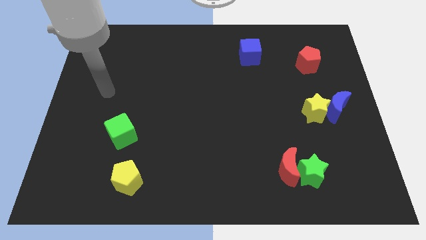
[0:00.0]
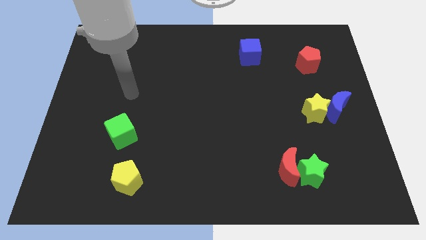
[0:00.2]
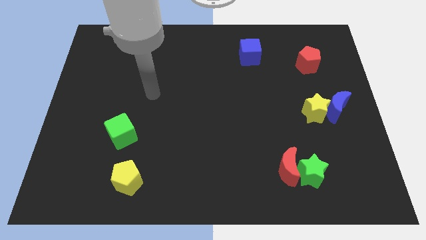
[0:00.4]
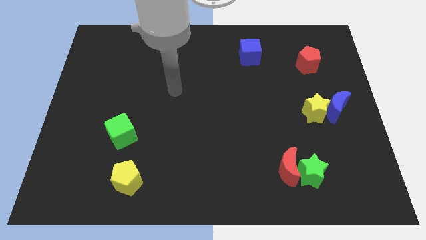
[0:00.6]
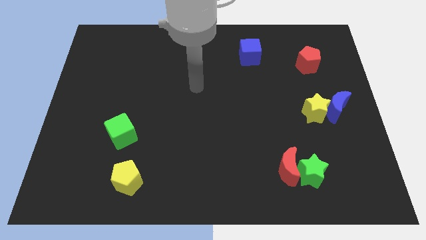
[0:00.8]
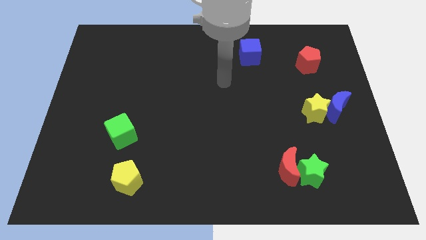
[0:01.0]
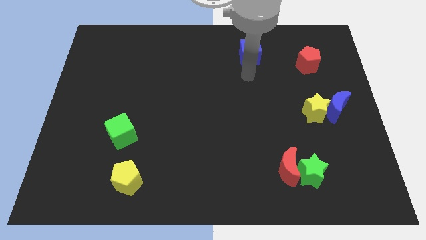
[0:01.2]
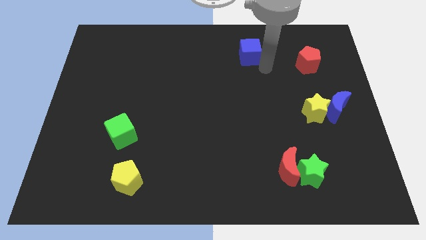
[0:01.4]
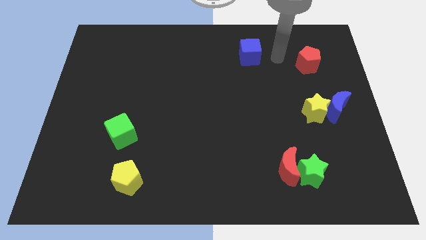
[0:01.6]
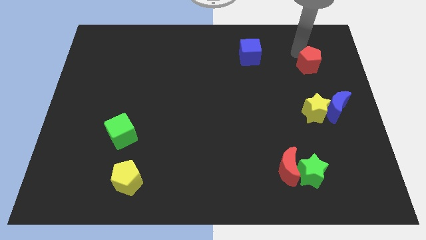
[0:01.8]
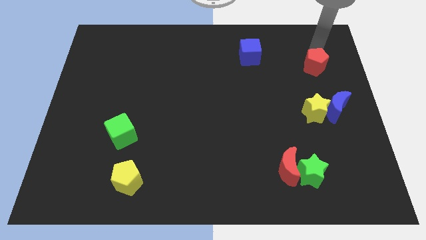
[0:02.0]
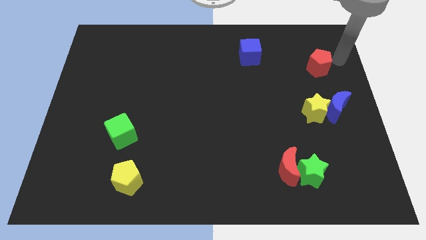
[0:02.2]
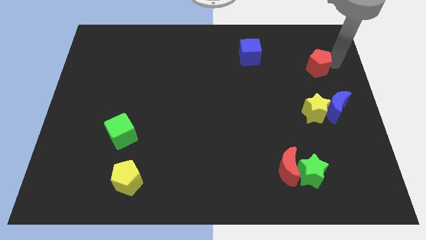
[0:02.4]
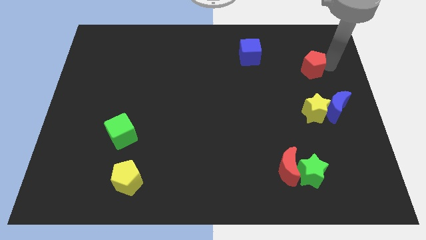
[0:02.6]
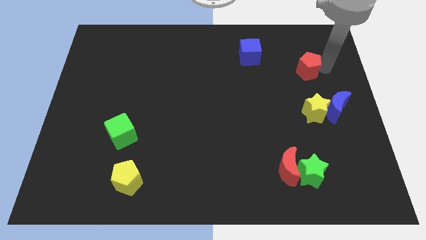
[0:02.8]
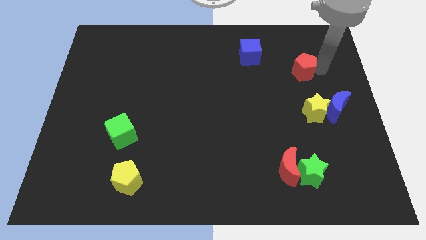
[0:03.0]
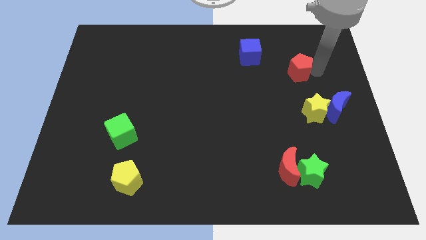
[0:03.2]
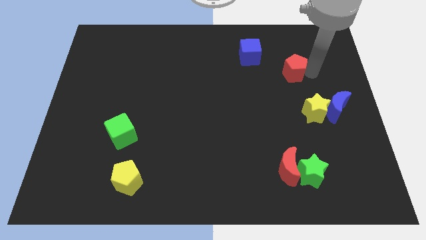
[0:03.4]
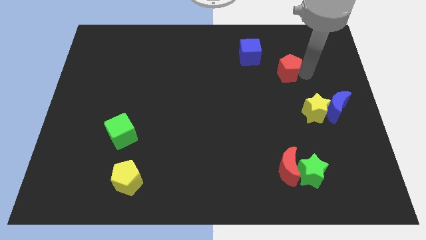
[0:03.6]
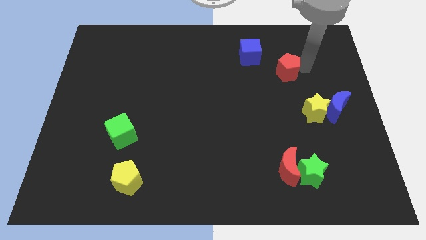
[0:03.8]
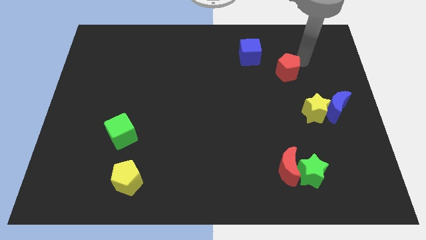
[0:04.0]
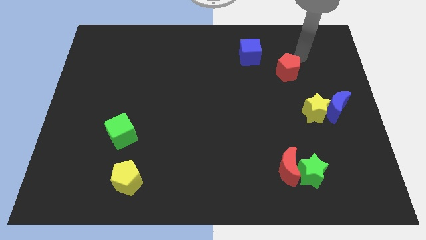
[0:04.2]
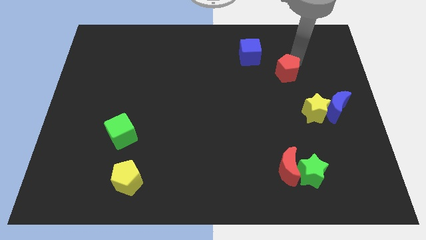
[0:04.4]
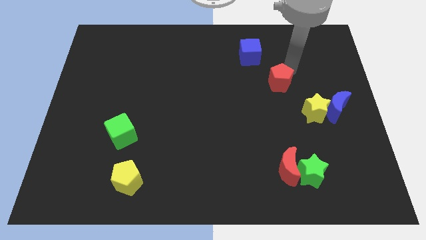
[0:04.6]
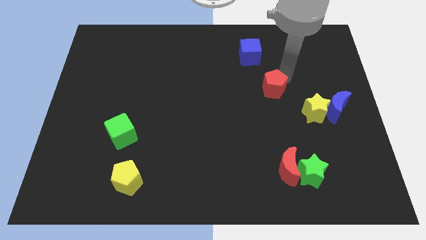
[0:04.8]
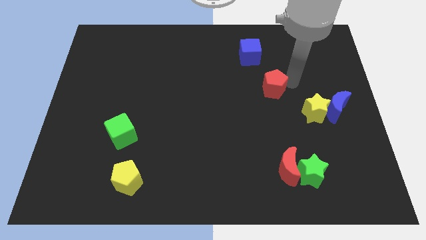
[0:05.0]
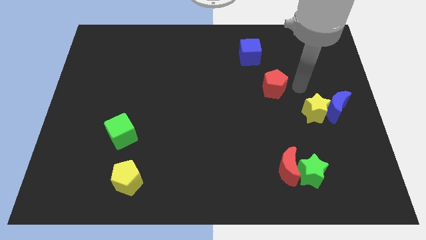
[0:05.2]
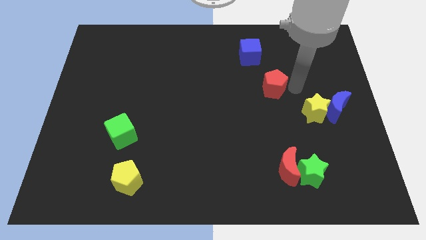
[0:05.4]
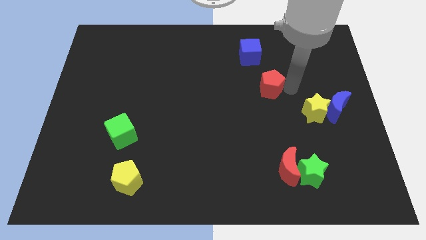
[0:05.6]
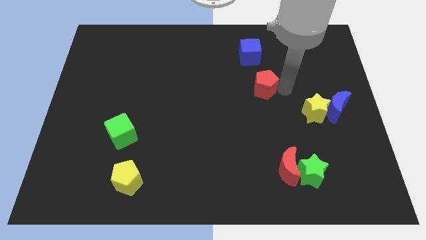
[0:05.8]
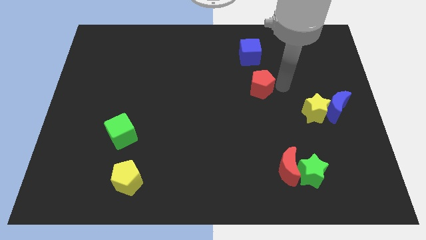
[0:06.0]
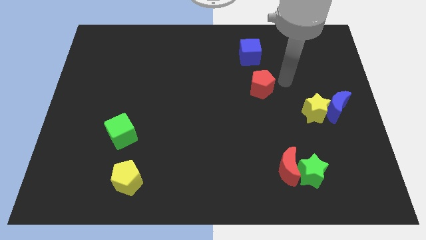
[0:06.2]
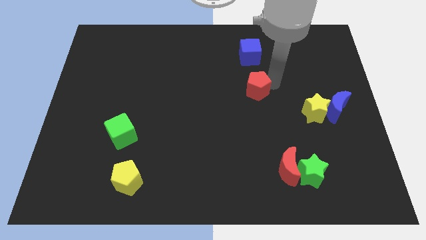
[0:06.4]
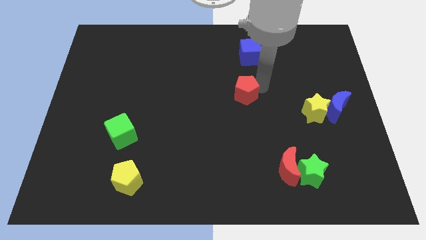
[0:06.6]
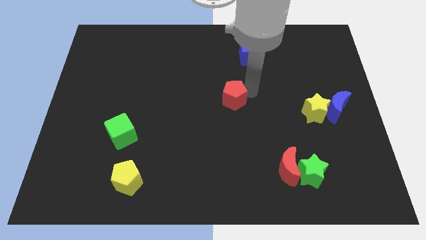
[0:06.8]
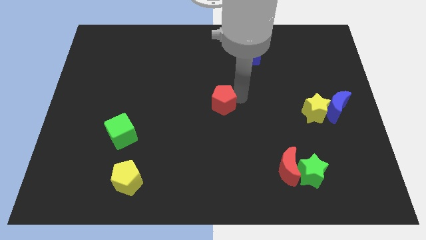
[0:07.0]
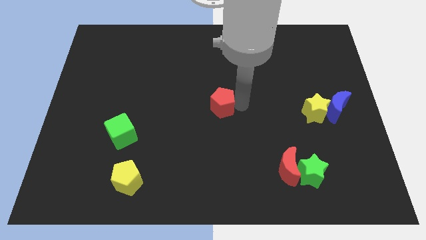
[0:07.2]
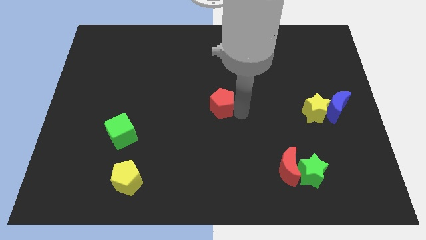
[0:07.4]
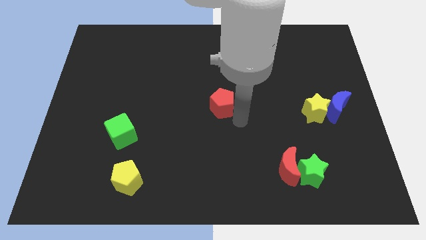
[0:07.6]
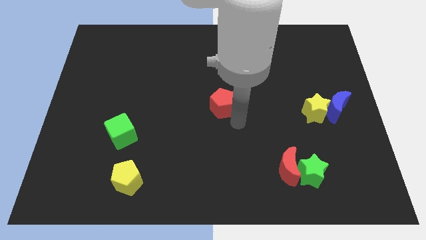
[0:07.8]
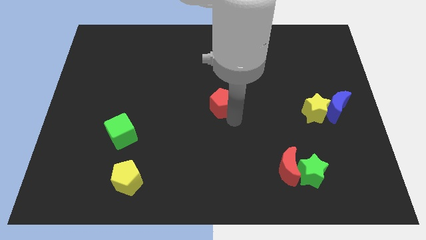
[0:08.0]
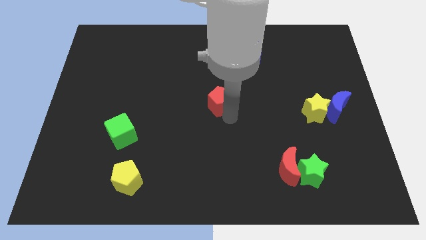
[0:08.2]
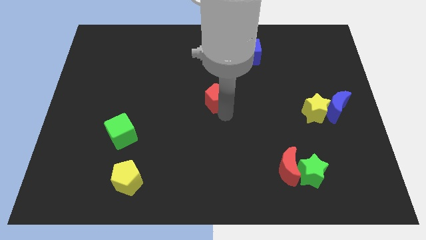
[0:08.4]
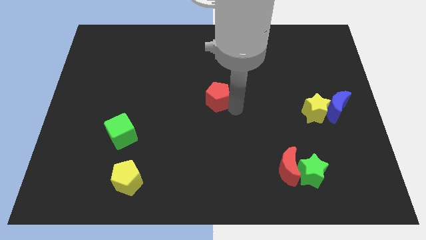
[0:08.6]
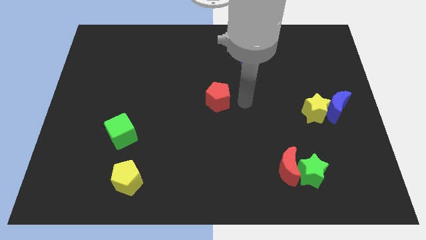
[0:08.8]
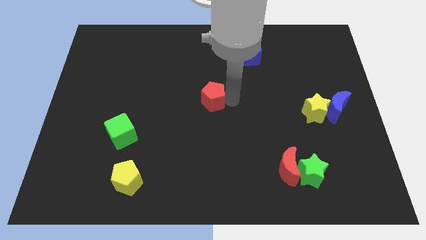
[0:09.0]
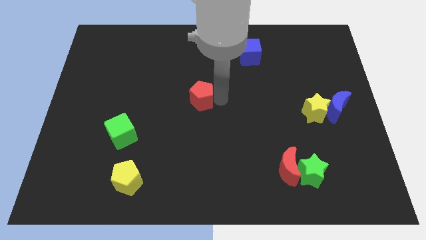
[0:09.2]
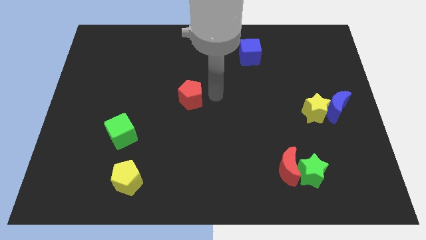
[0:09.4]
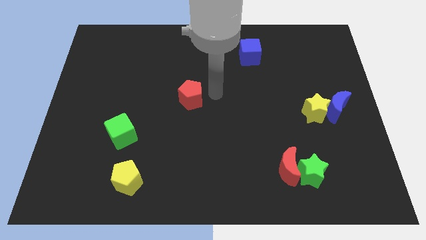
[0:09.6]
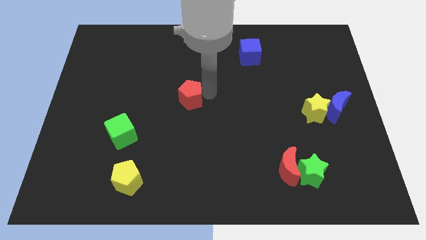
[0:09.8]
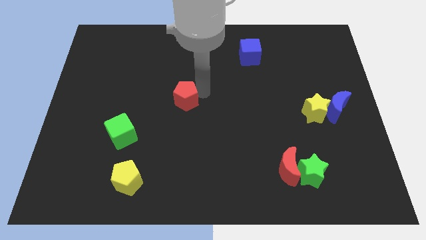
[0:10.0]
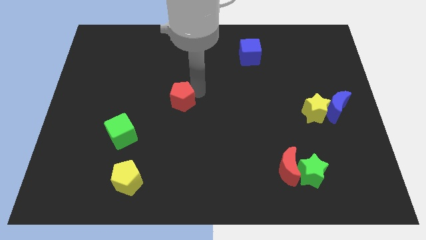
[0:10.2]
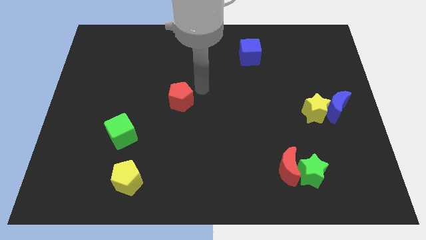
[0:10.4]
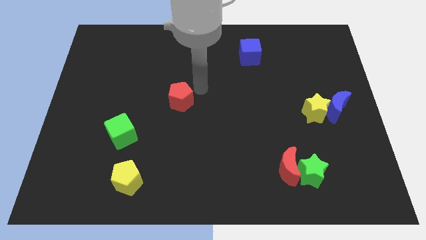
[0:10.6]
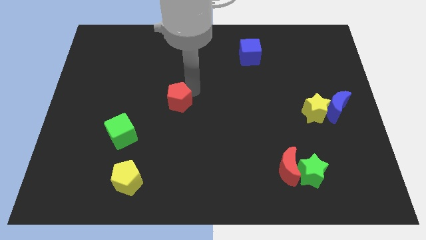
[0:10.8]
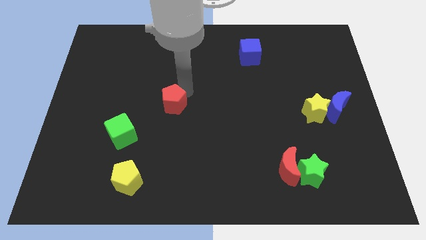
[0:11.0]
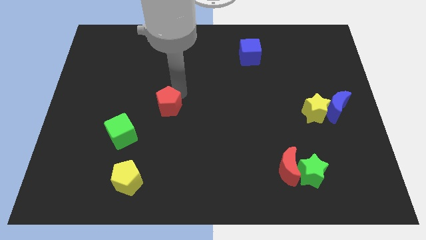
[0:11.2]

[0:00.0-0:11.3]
move the red pentagon to the top right side of the green cube

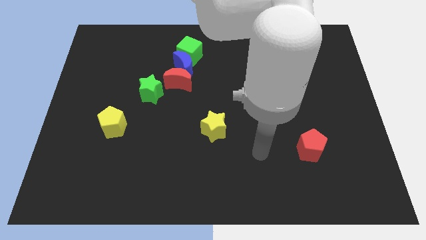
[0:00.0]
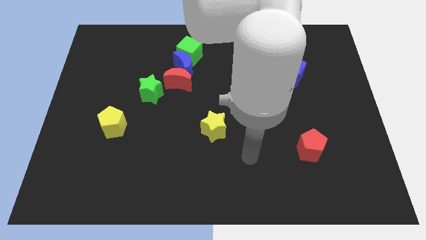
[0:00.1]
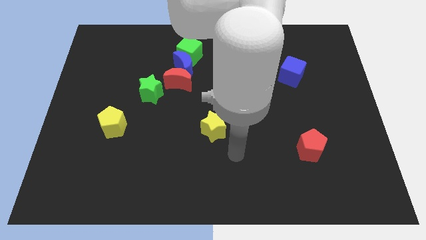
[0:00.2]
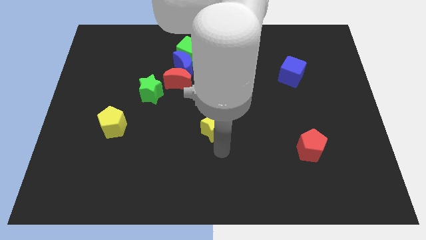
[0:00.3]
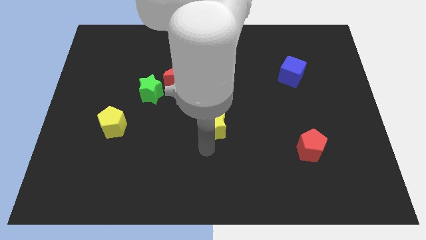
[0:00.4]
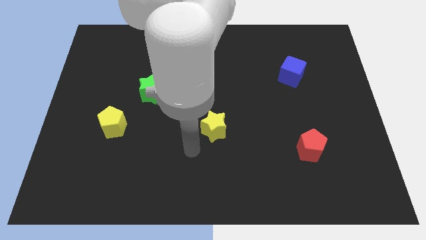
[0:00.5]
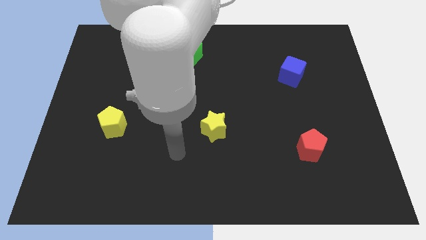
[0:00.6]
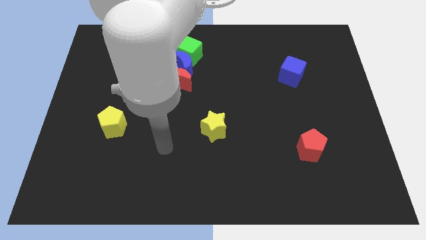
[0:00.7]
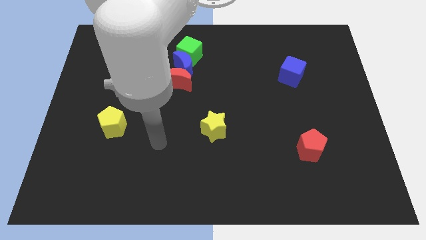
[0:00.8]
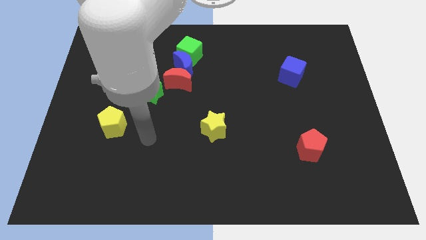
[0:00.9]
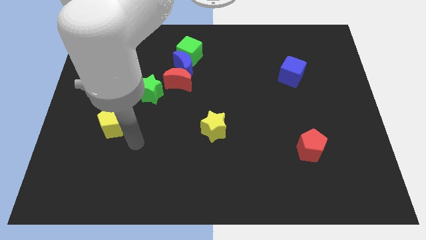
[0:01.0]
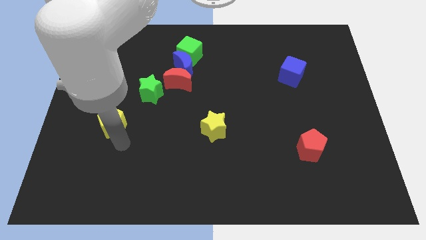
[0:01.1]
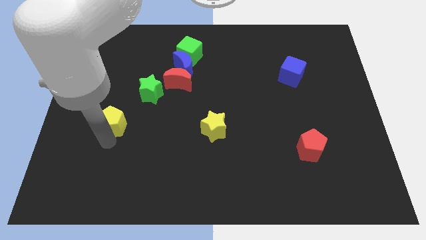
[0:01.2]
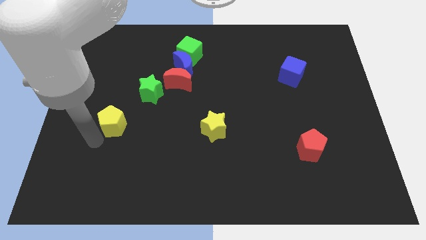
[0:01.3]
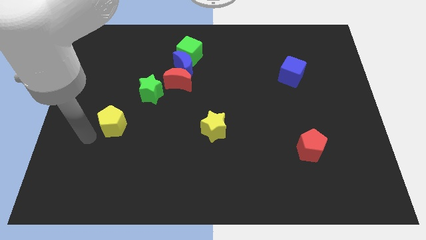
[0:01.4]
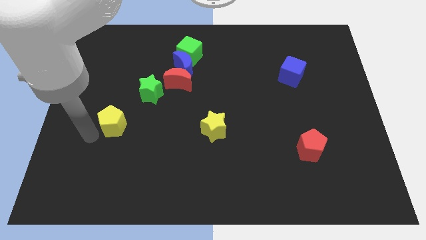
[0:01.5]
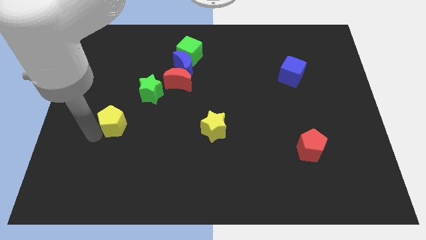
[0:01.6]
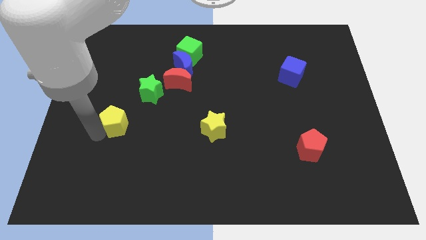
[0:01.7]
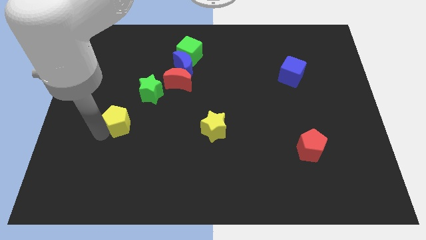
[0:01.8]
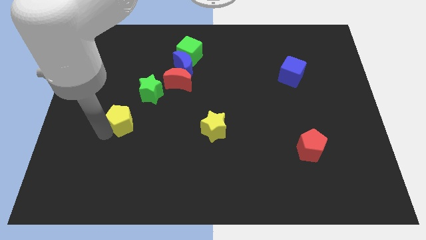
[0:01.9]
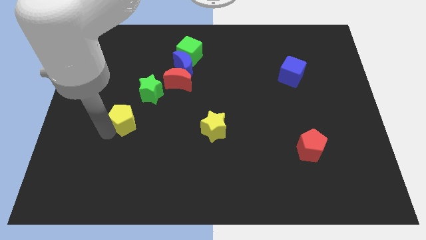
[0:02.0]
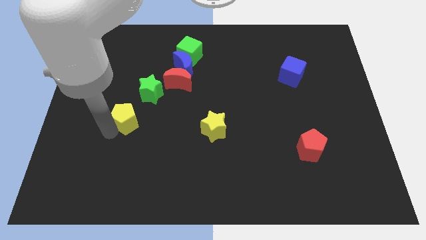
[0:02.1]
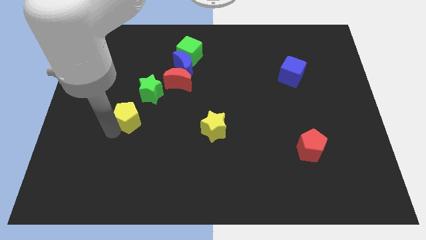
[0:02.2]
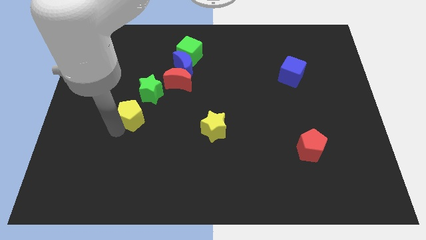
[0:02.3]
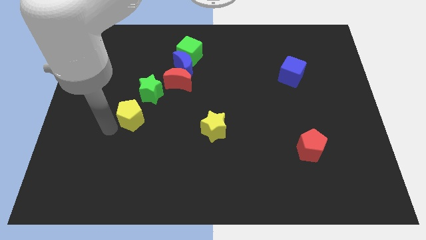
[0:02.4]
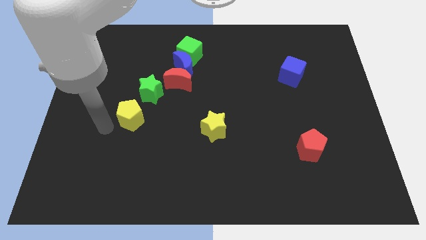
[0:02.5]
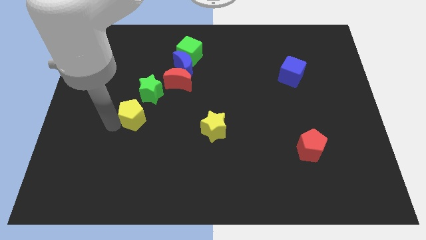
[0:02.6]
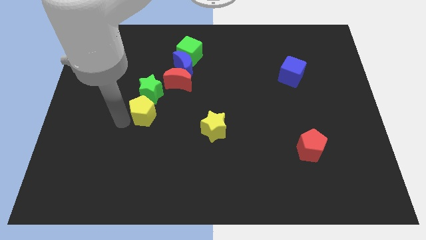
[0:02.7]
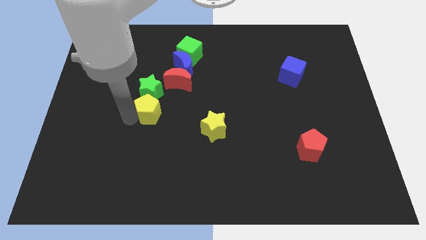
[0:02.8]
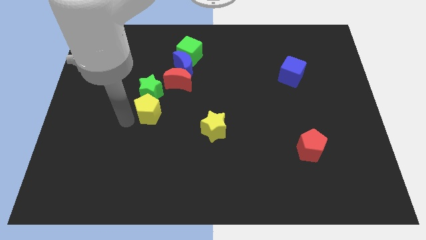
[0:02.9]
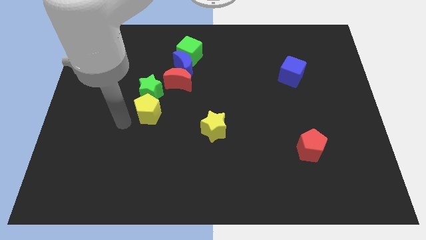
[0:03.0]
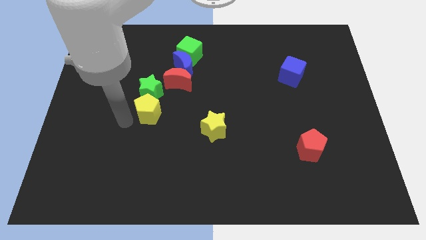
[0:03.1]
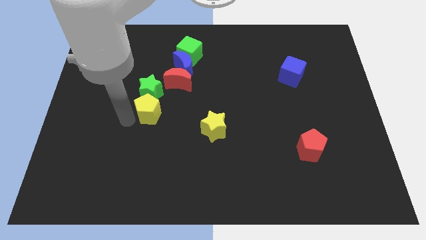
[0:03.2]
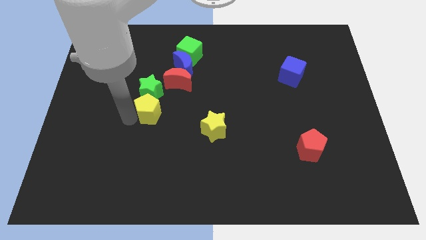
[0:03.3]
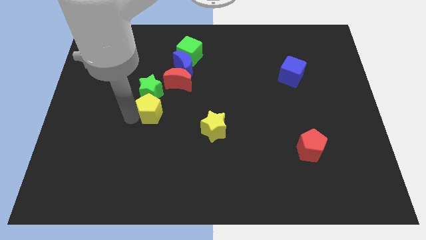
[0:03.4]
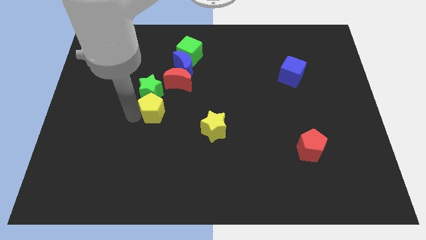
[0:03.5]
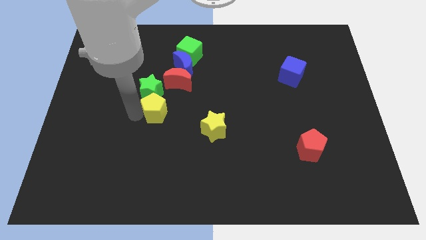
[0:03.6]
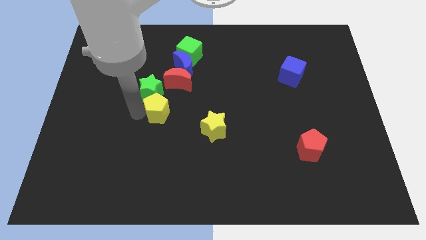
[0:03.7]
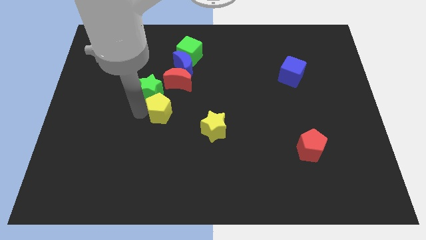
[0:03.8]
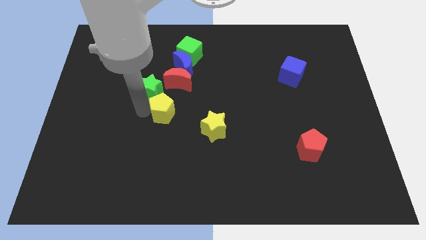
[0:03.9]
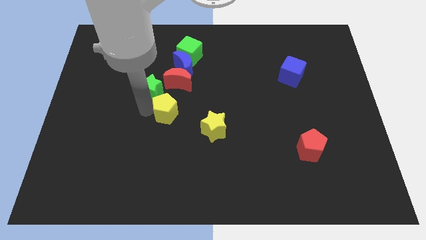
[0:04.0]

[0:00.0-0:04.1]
move the yellow pentagon below the blue moon
